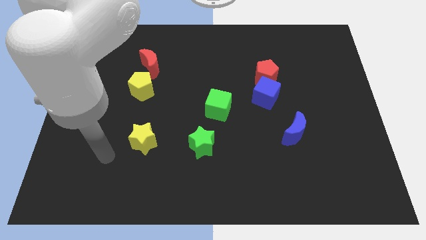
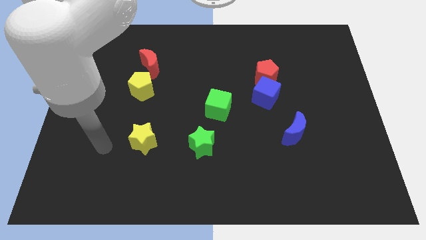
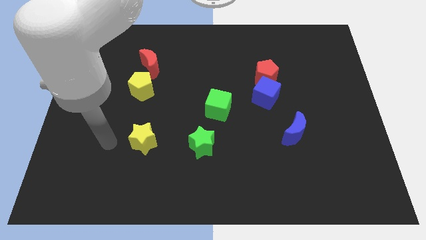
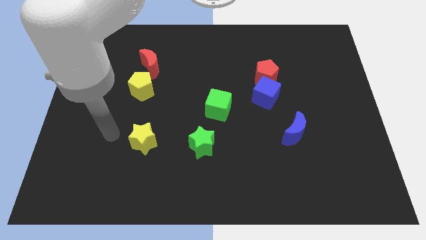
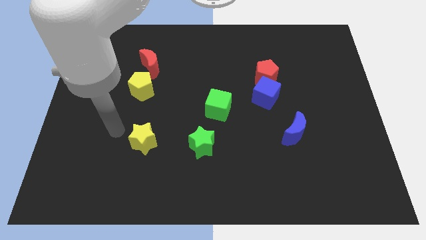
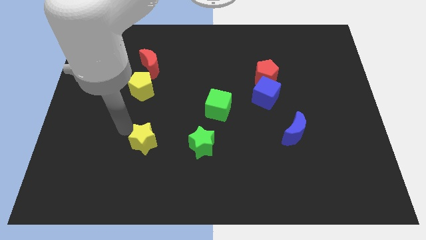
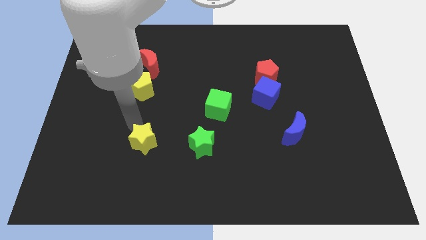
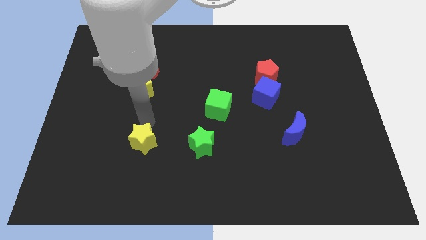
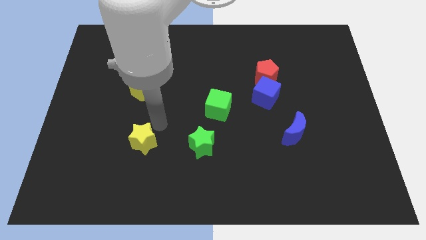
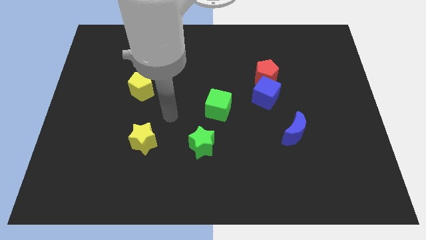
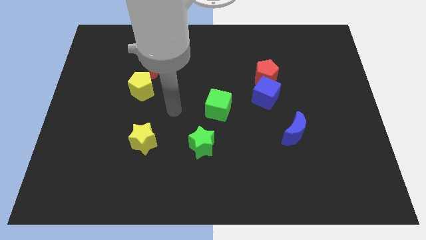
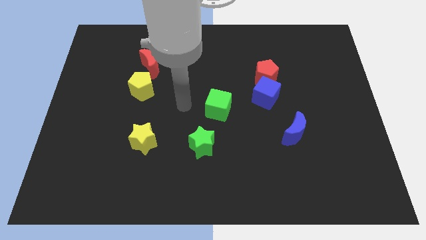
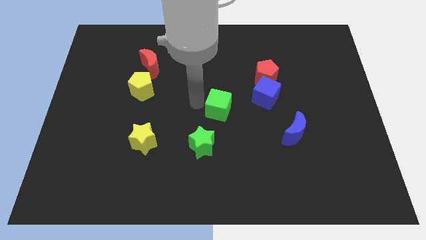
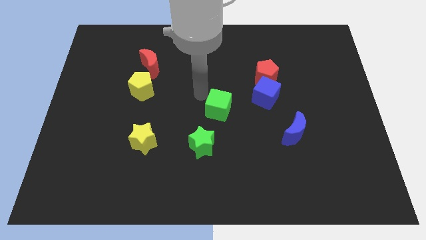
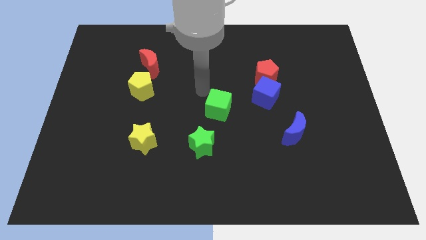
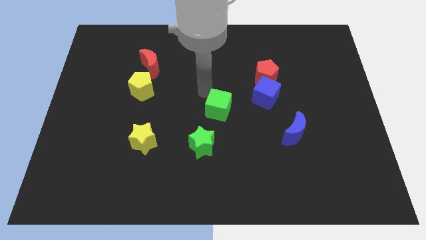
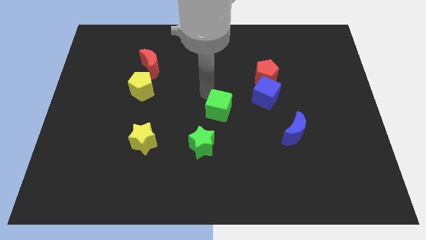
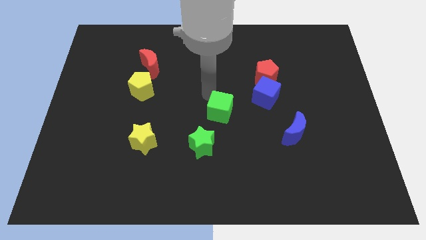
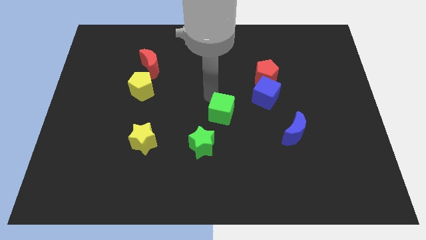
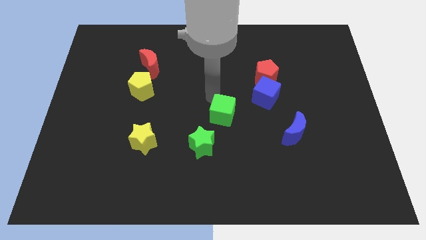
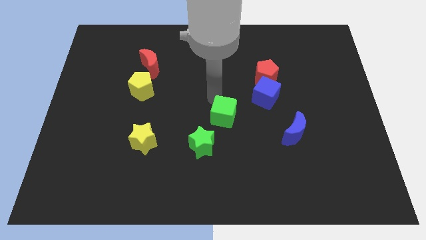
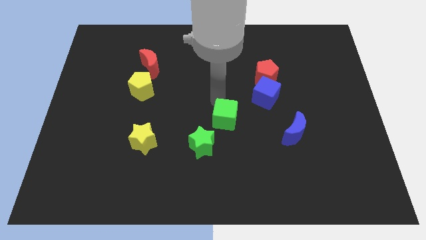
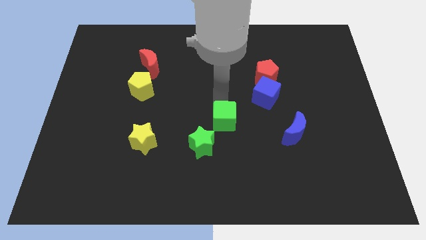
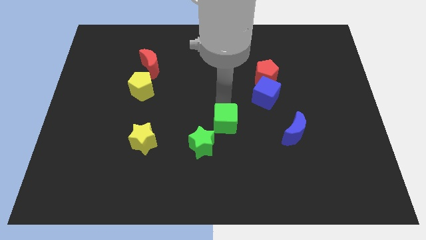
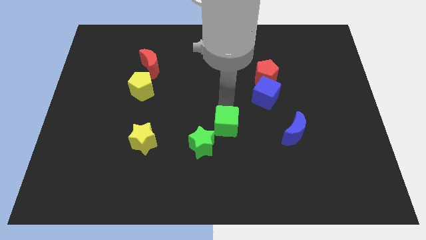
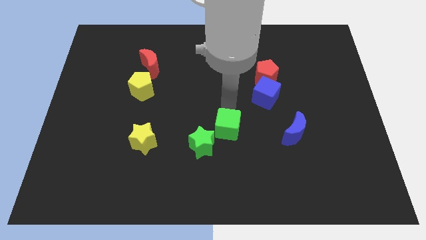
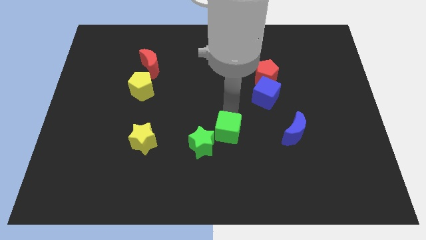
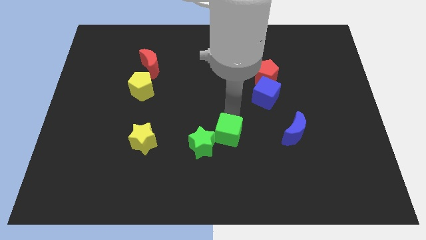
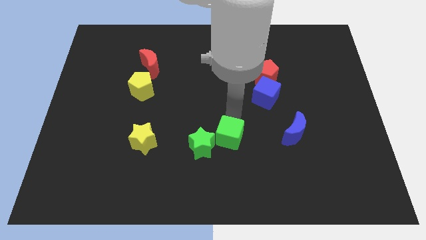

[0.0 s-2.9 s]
slide the green cube diagonally down and right slightly

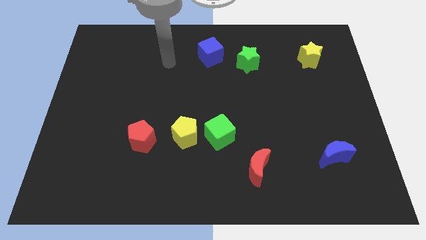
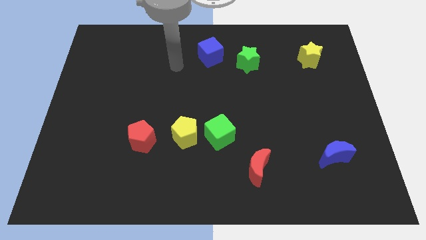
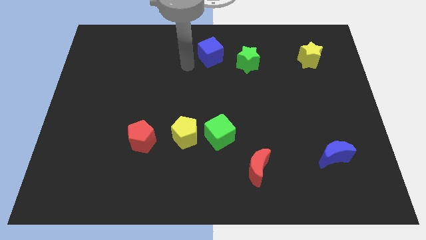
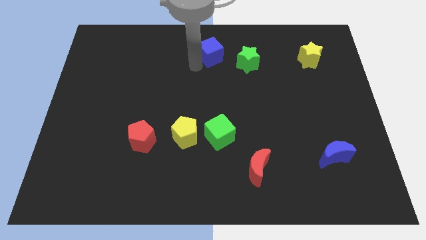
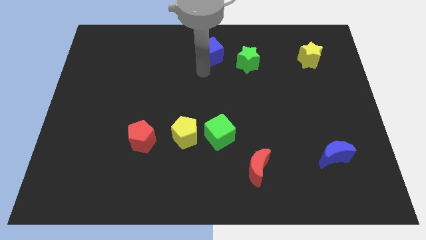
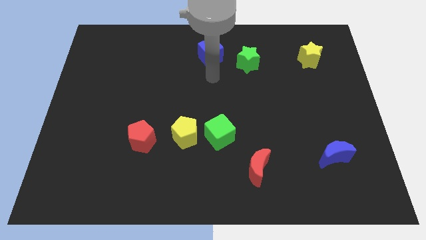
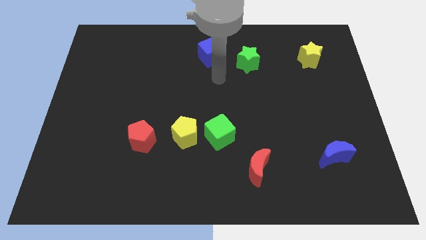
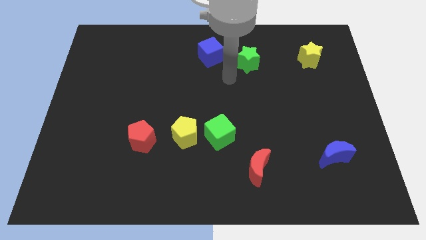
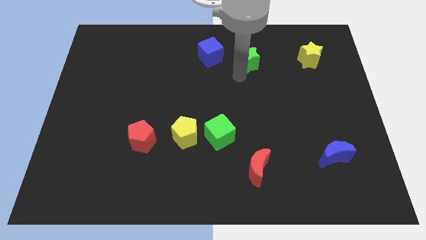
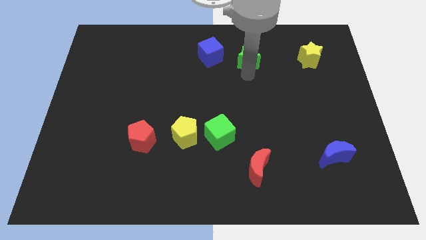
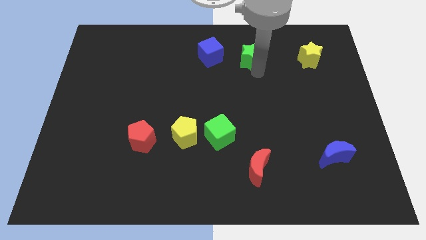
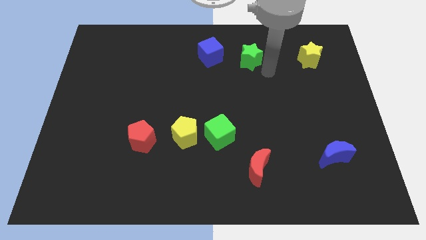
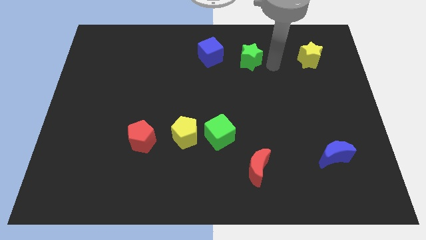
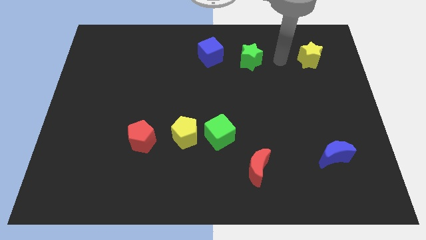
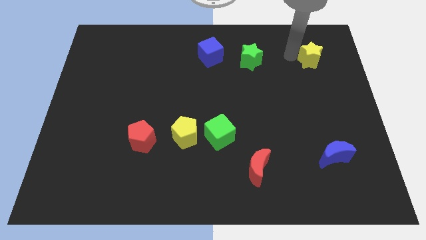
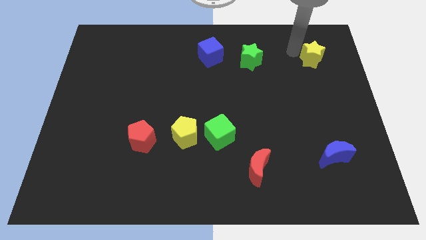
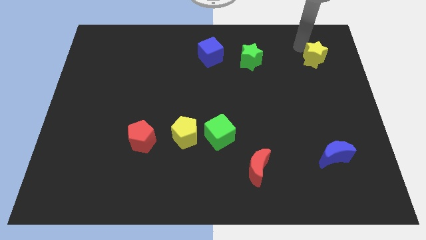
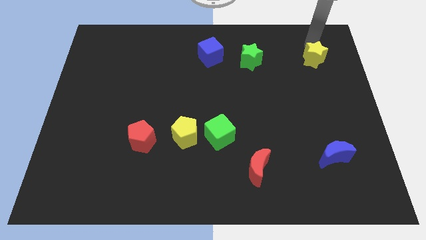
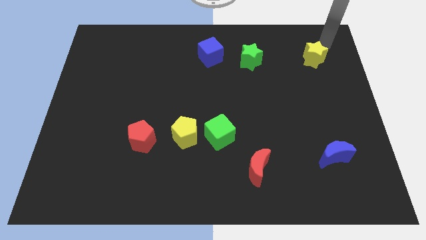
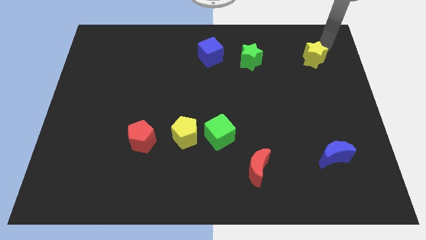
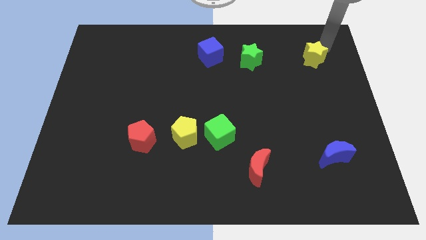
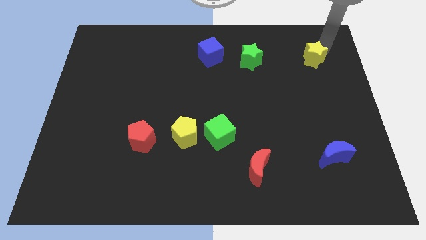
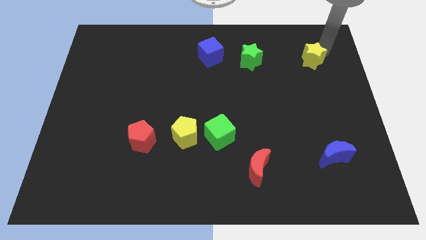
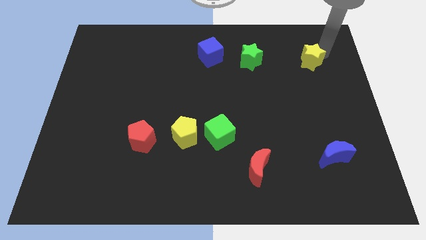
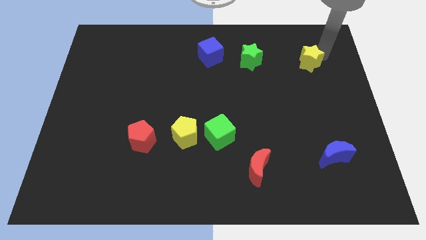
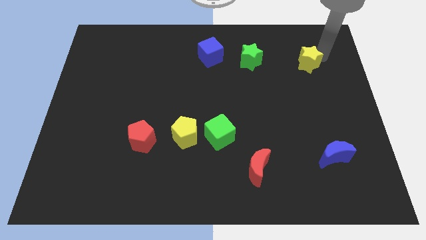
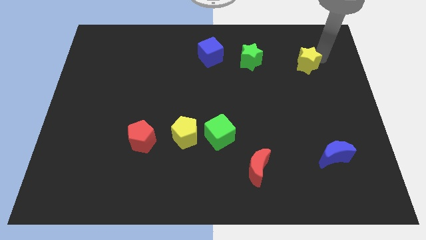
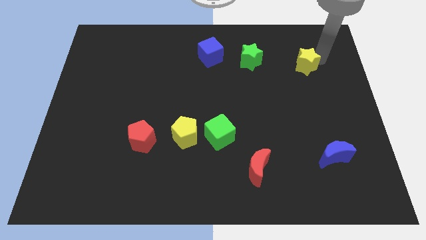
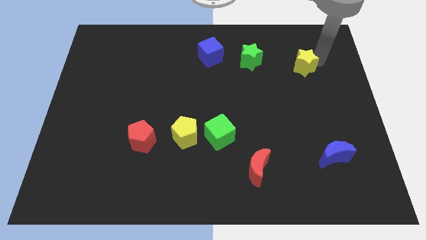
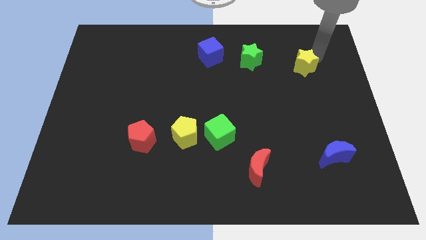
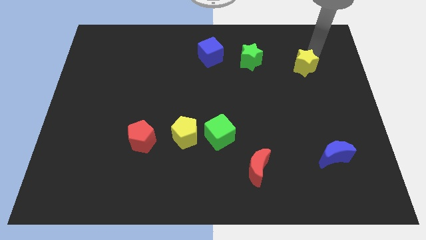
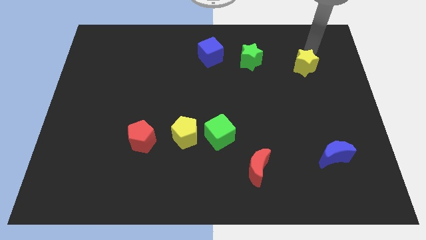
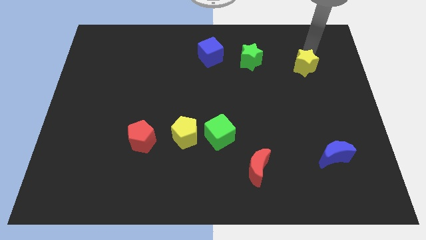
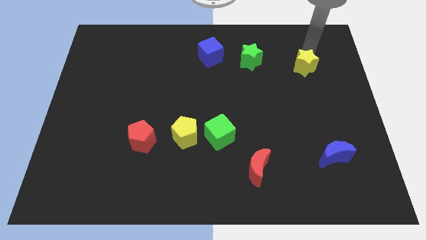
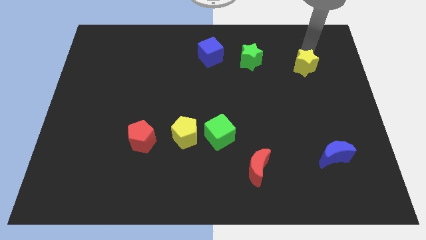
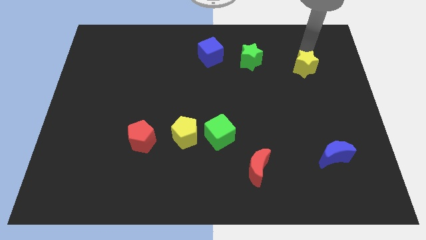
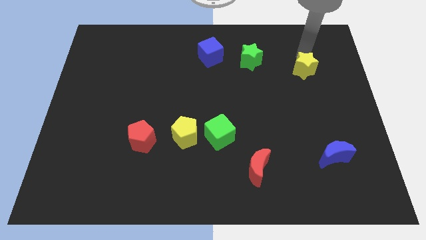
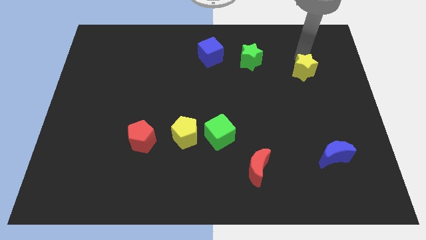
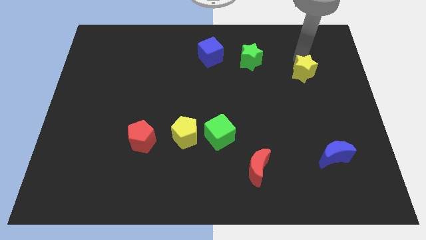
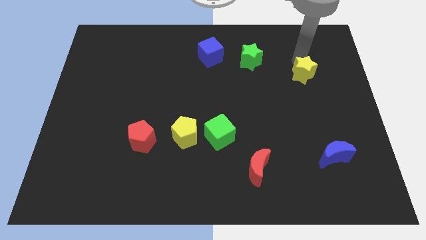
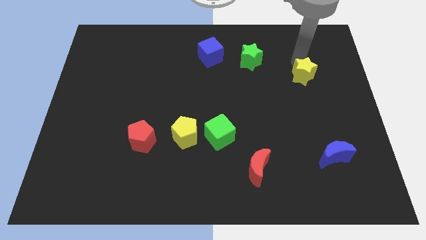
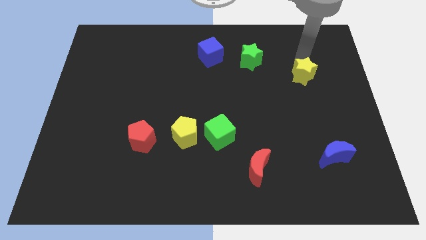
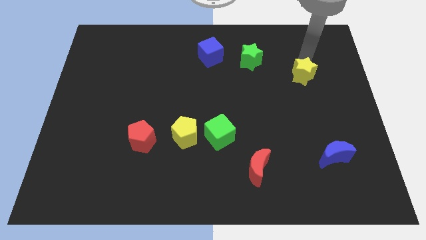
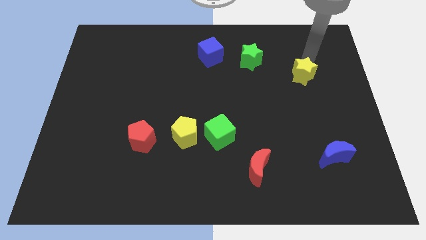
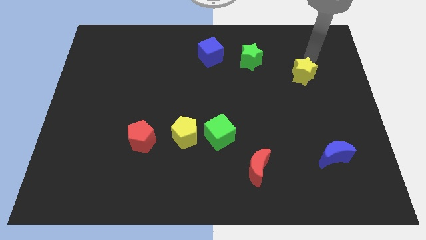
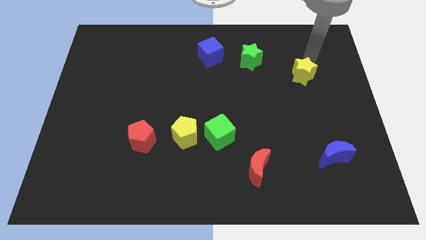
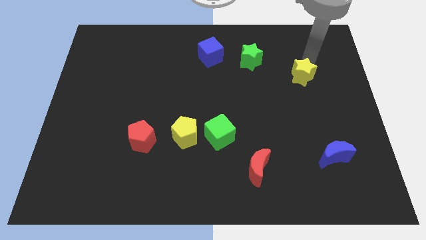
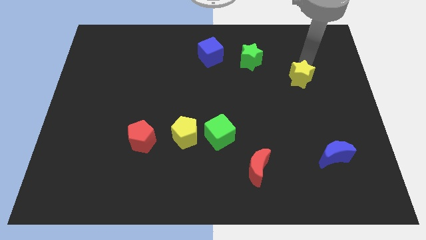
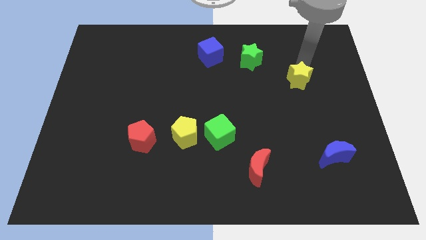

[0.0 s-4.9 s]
slightly move the yellow star downwards
